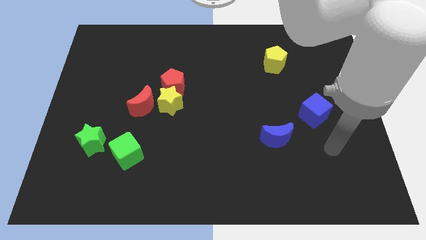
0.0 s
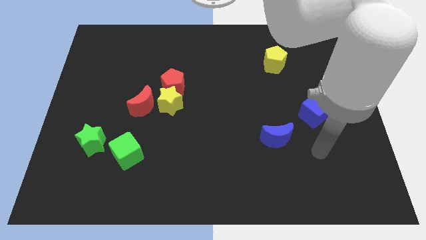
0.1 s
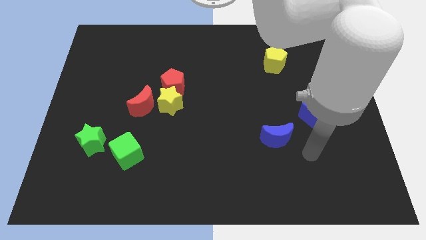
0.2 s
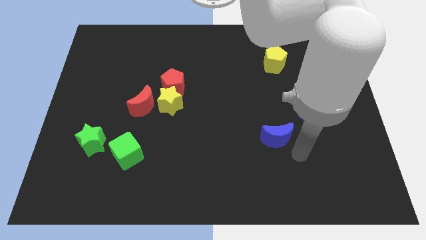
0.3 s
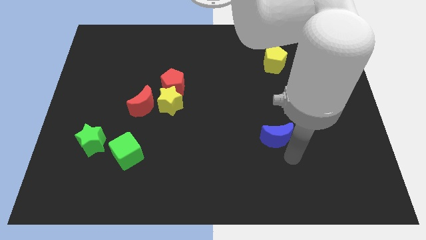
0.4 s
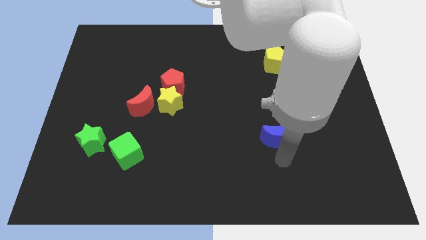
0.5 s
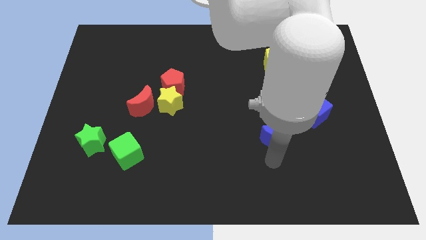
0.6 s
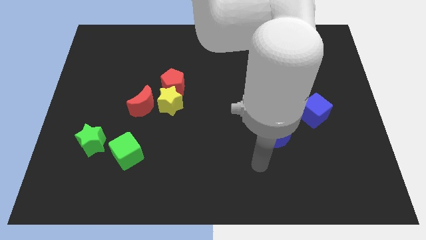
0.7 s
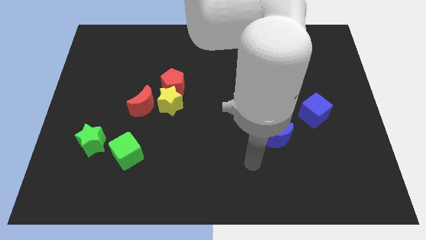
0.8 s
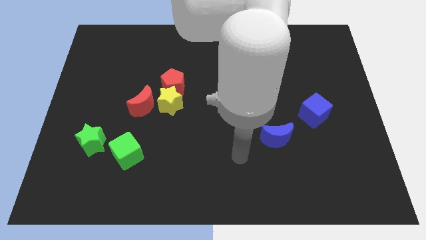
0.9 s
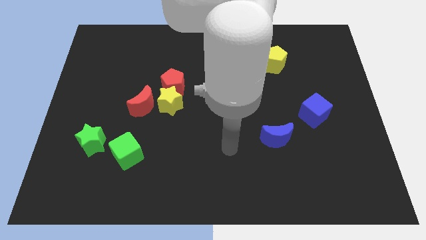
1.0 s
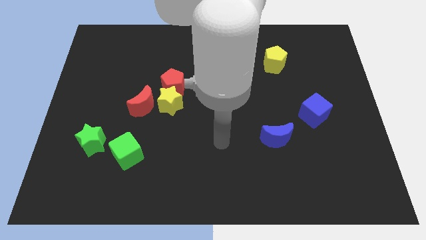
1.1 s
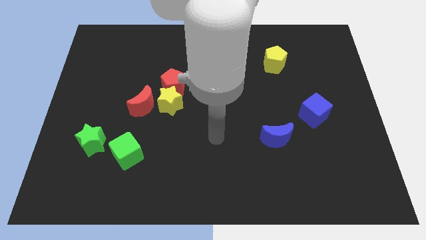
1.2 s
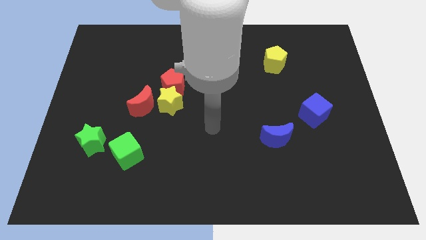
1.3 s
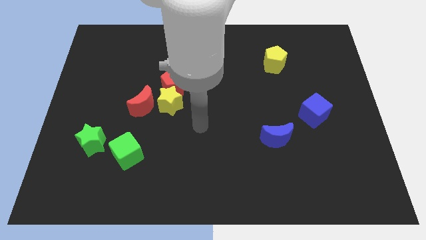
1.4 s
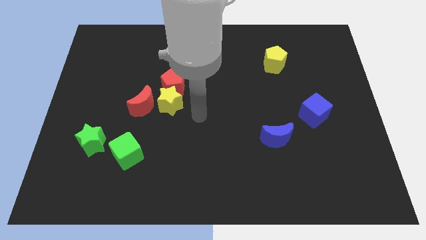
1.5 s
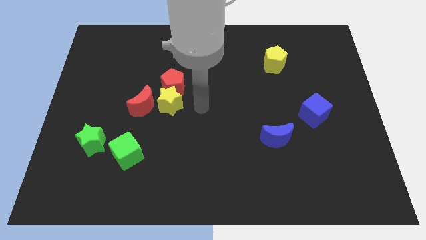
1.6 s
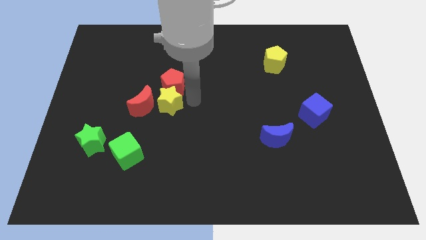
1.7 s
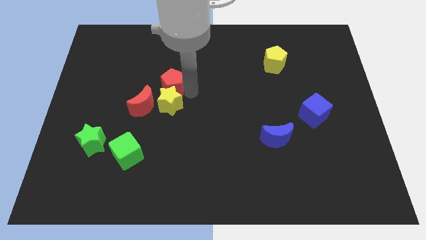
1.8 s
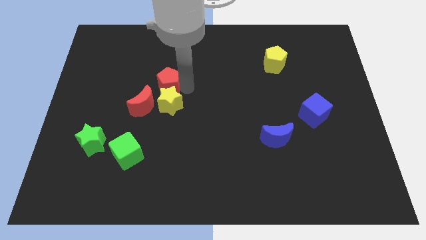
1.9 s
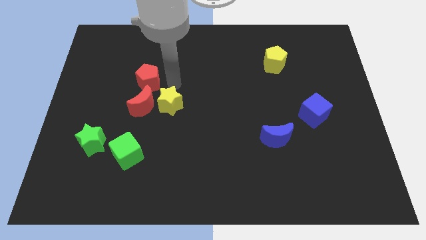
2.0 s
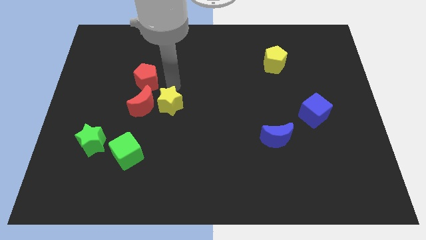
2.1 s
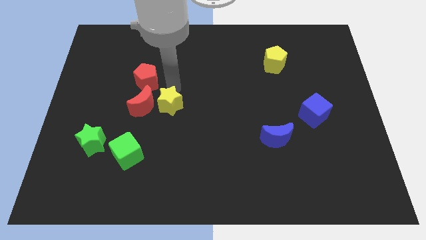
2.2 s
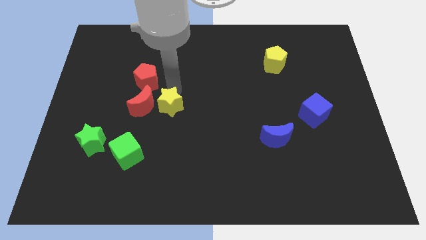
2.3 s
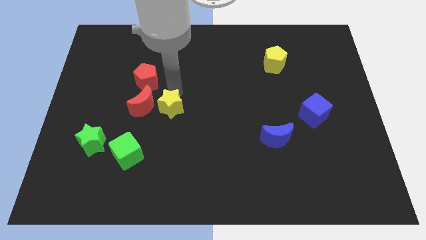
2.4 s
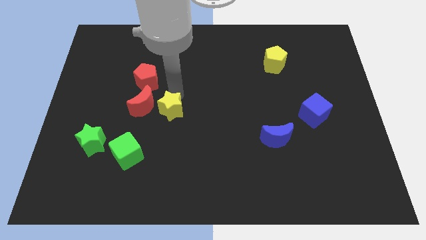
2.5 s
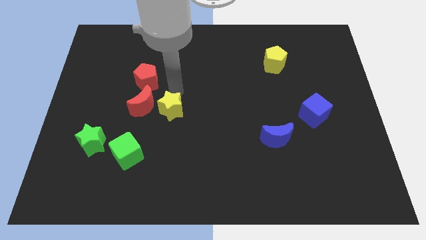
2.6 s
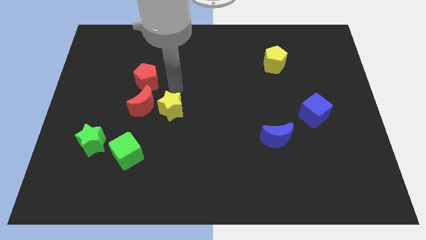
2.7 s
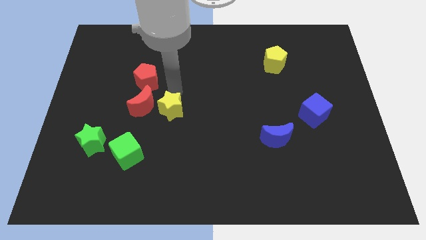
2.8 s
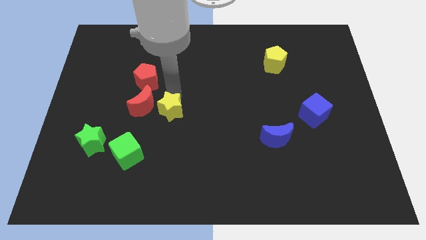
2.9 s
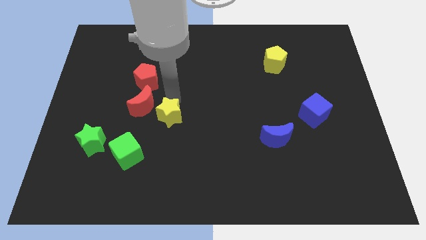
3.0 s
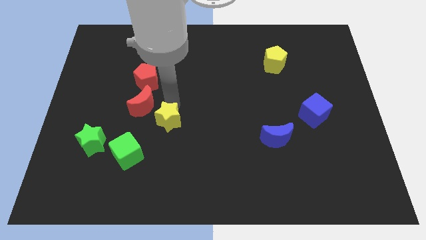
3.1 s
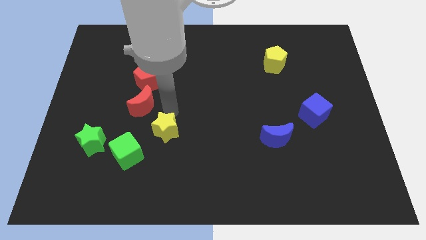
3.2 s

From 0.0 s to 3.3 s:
slide the yellow star slightly downwards

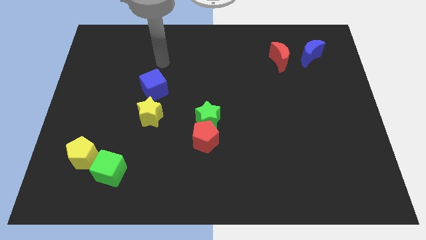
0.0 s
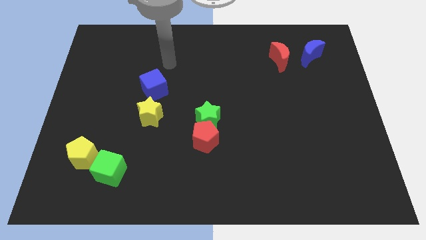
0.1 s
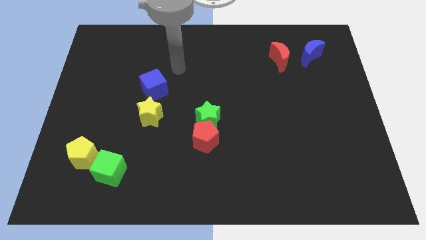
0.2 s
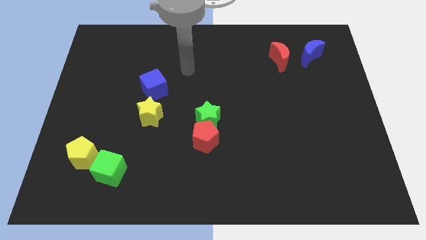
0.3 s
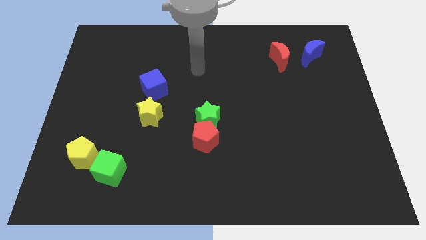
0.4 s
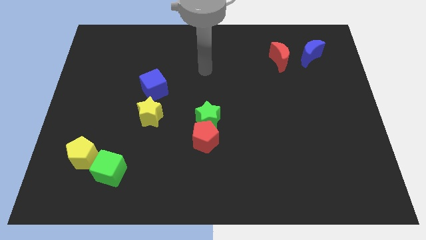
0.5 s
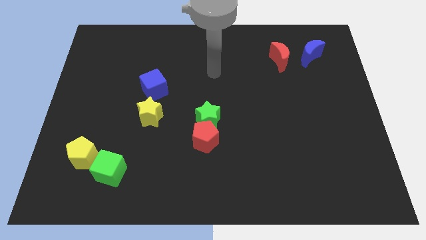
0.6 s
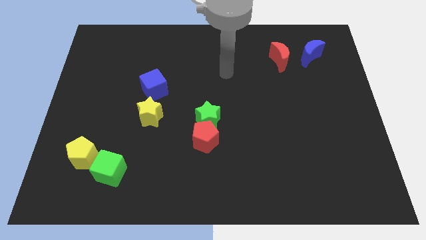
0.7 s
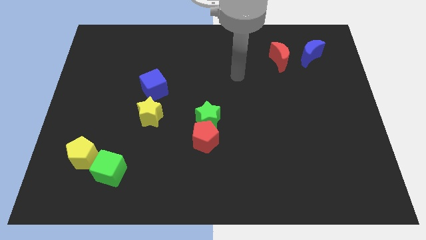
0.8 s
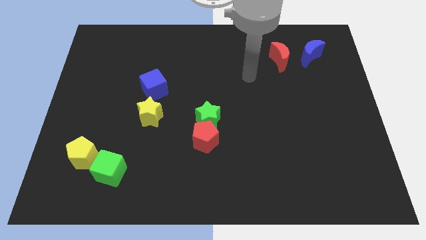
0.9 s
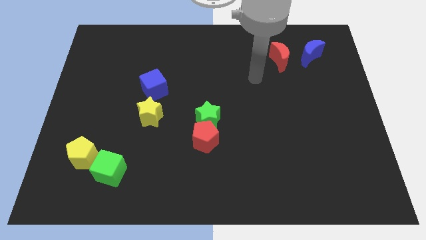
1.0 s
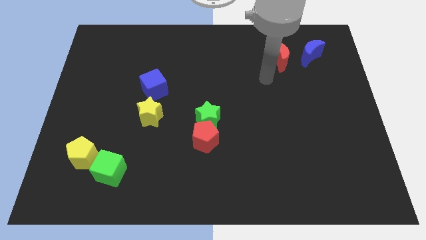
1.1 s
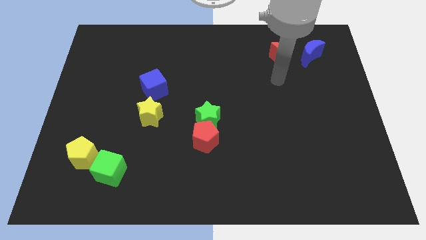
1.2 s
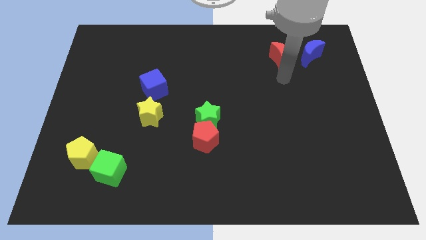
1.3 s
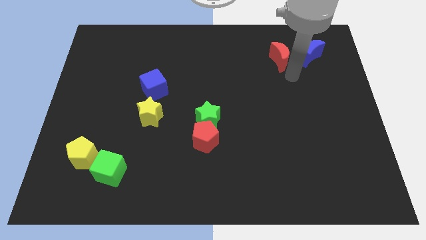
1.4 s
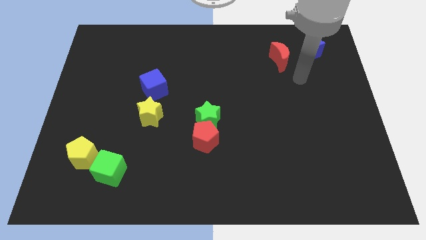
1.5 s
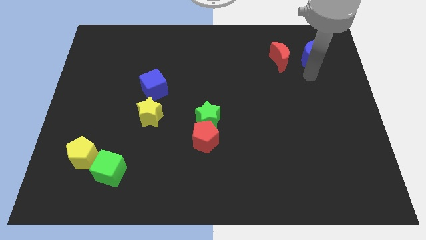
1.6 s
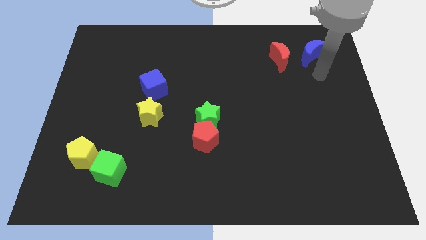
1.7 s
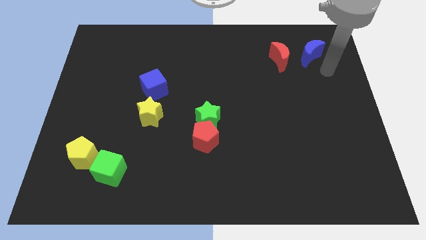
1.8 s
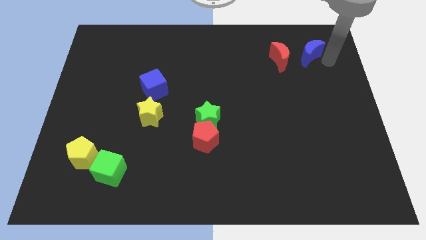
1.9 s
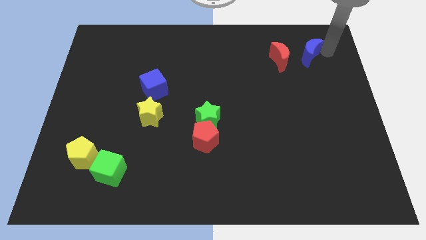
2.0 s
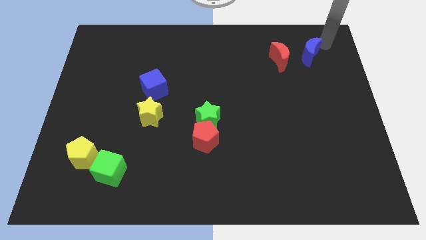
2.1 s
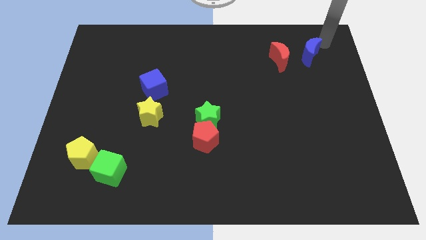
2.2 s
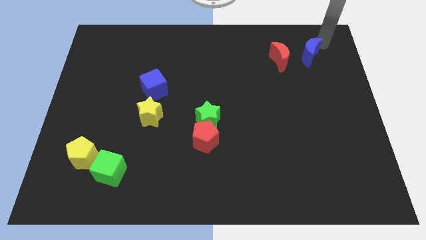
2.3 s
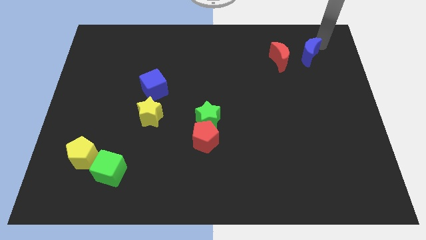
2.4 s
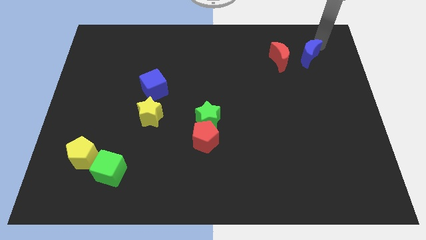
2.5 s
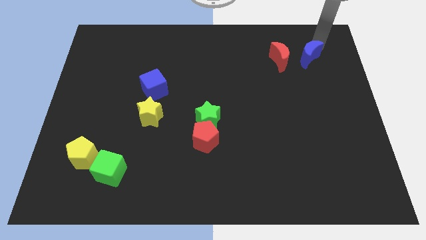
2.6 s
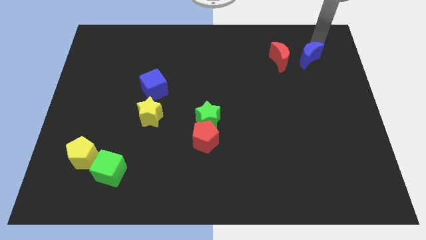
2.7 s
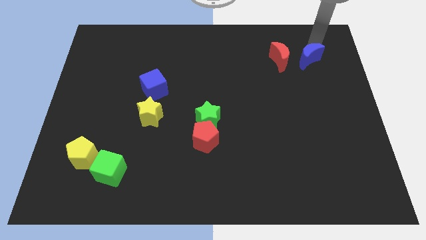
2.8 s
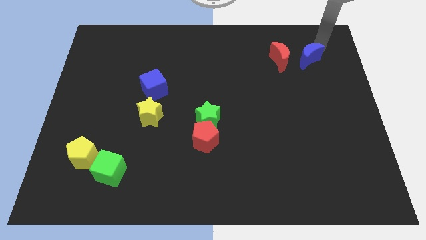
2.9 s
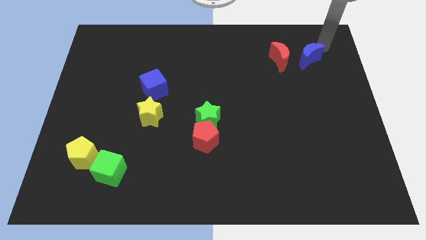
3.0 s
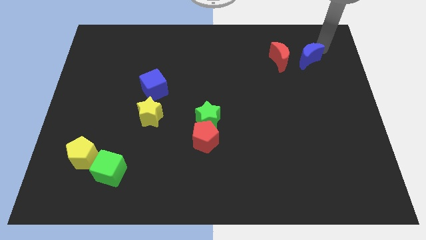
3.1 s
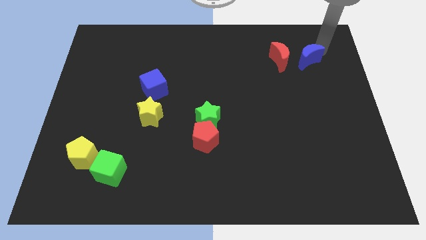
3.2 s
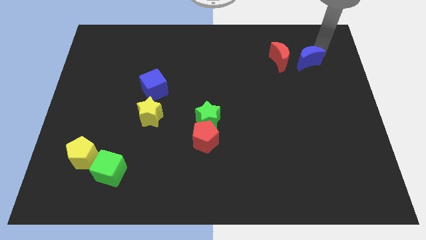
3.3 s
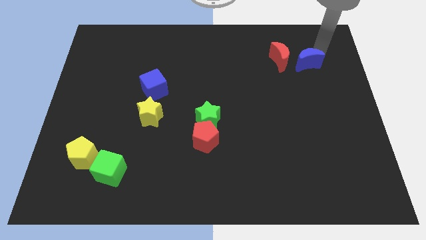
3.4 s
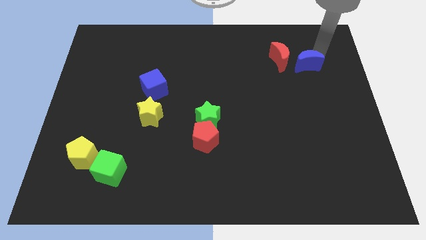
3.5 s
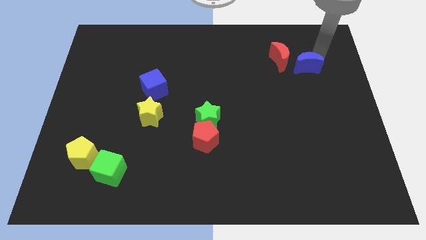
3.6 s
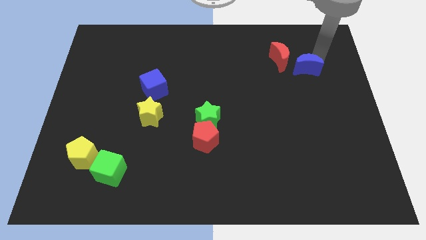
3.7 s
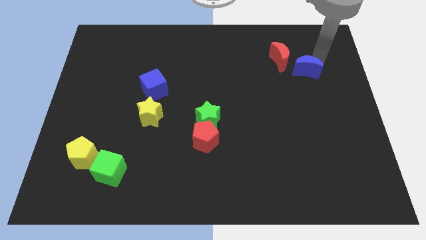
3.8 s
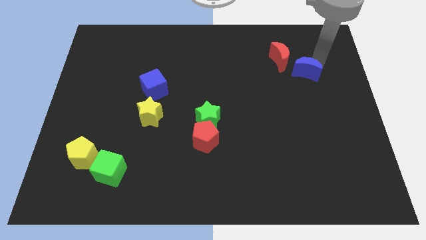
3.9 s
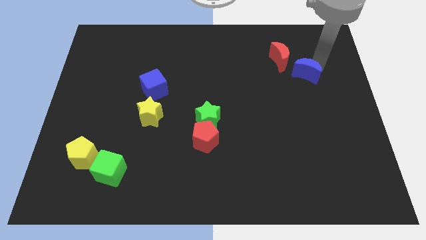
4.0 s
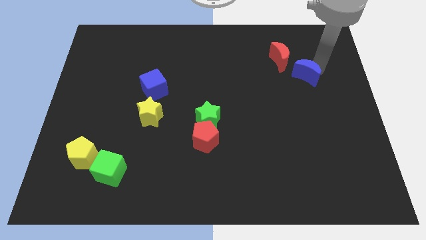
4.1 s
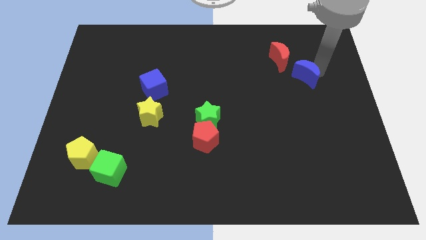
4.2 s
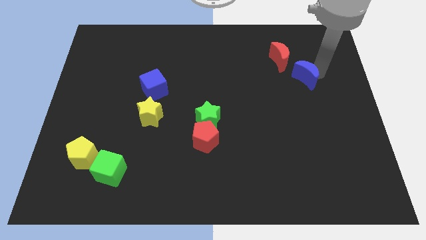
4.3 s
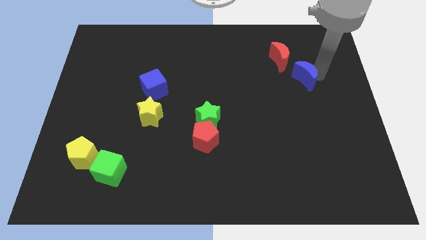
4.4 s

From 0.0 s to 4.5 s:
slightly push the blue moon diagonally downwards and left
